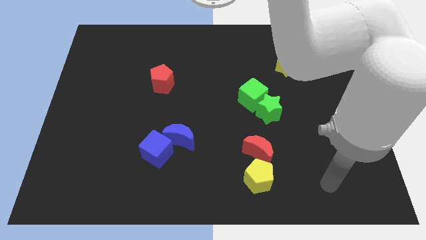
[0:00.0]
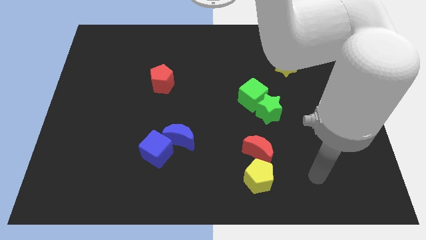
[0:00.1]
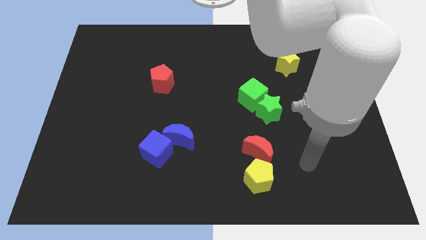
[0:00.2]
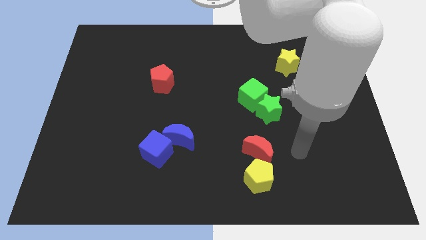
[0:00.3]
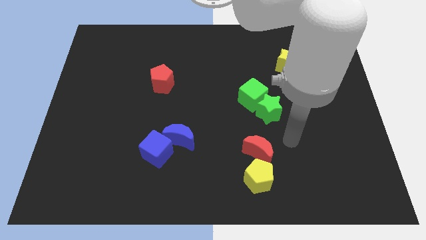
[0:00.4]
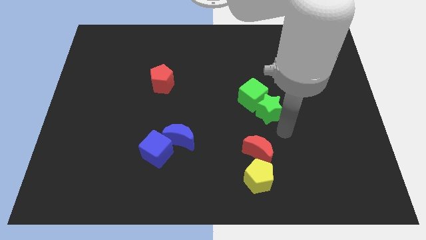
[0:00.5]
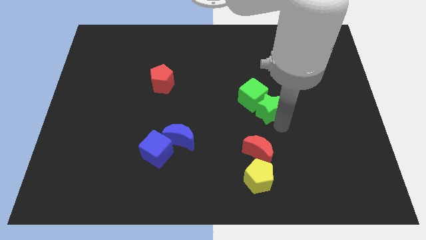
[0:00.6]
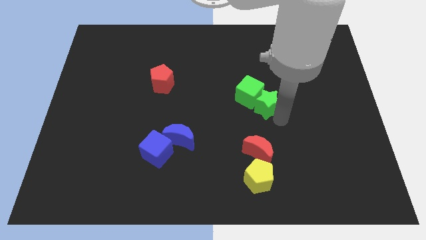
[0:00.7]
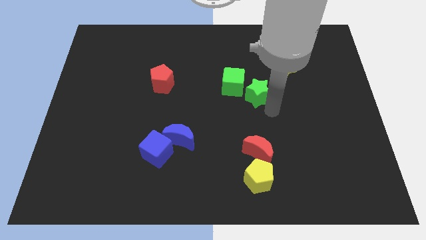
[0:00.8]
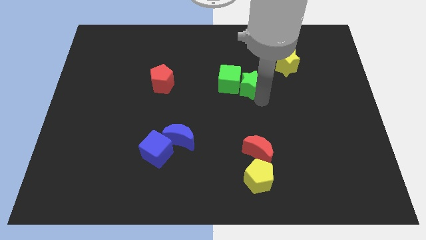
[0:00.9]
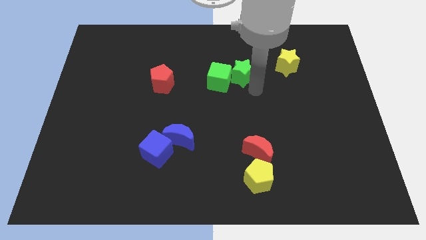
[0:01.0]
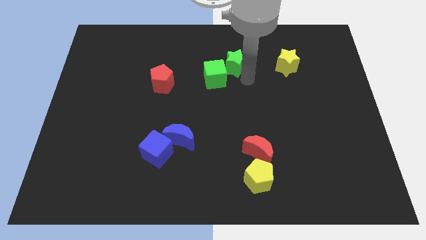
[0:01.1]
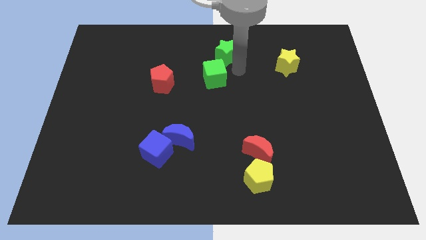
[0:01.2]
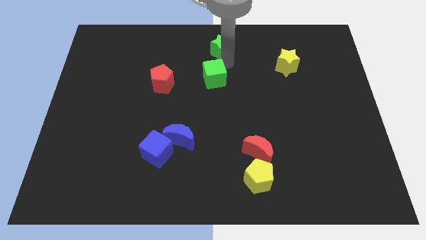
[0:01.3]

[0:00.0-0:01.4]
separate the green cube from the green star

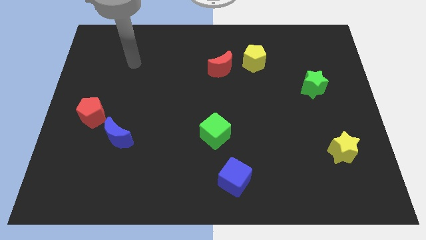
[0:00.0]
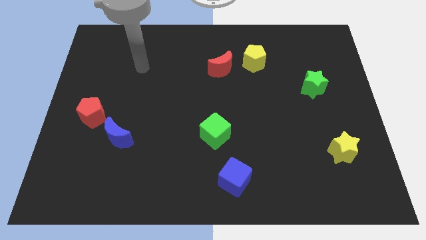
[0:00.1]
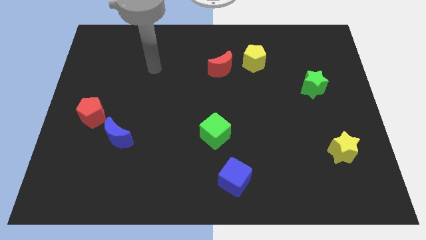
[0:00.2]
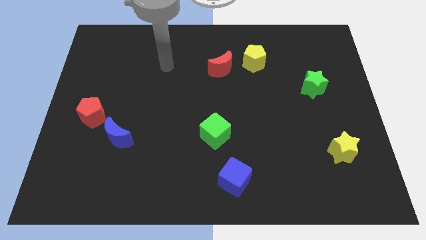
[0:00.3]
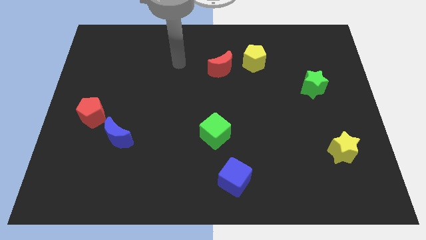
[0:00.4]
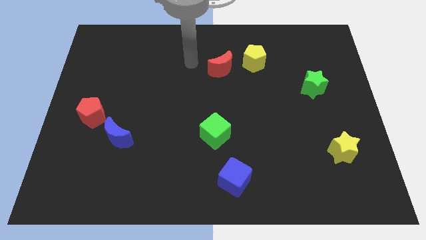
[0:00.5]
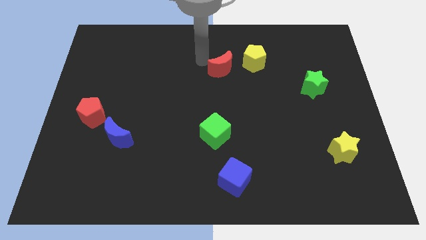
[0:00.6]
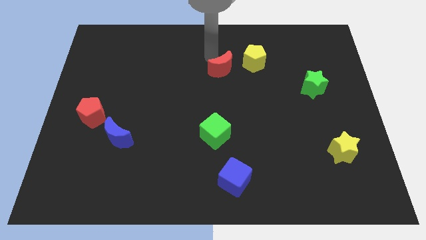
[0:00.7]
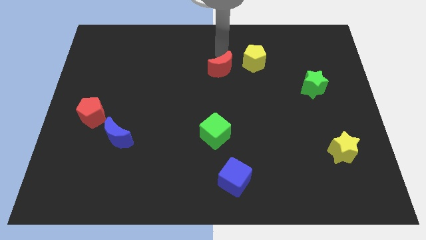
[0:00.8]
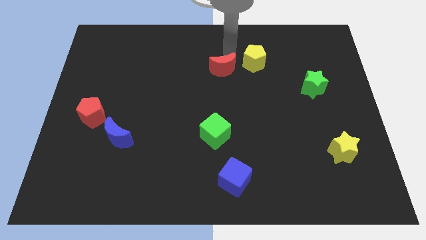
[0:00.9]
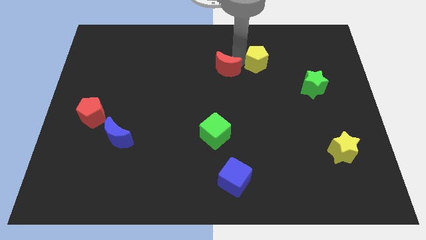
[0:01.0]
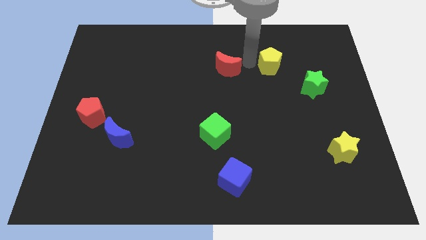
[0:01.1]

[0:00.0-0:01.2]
pull the red moon apart from the yellow pentagon

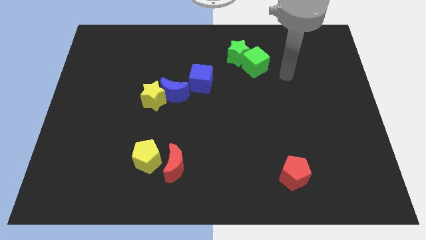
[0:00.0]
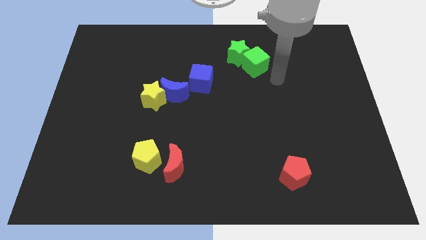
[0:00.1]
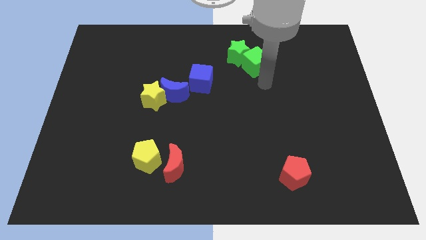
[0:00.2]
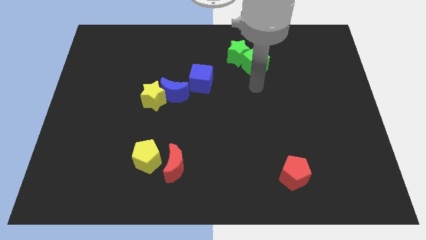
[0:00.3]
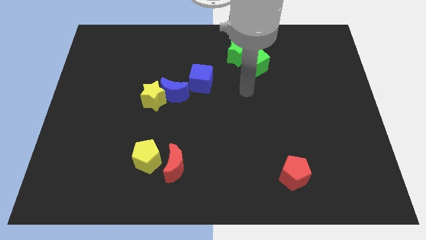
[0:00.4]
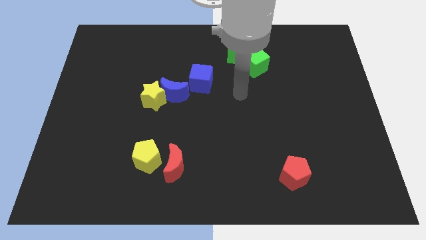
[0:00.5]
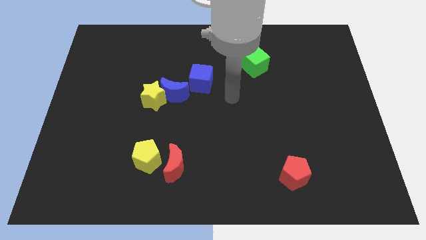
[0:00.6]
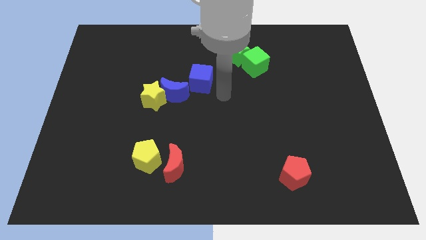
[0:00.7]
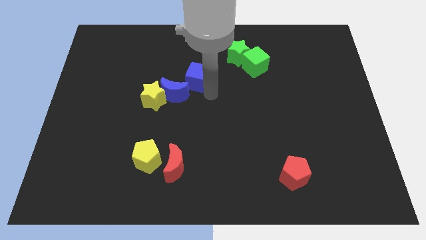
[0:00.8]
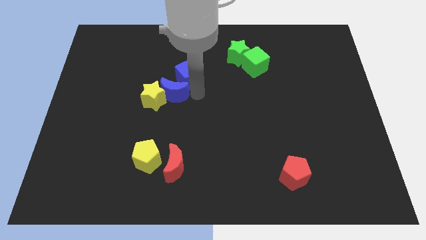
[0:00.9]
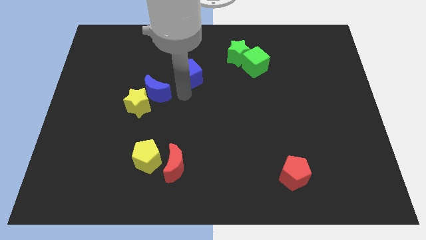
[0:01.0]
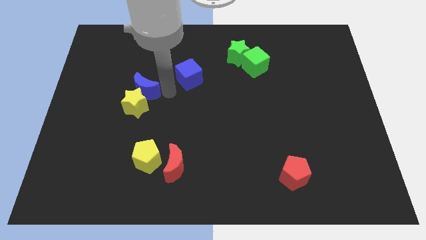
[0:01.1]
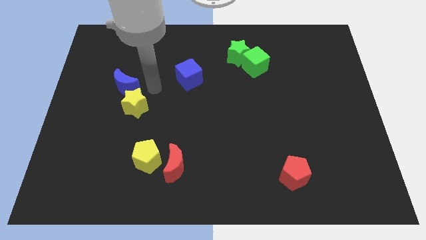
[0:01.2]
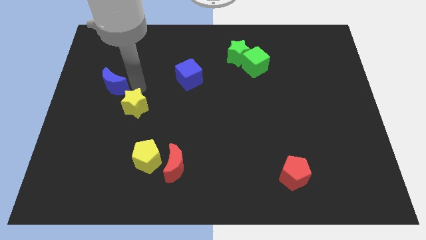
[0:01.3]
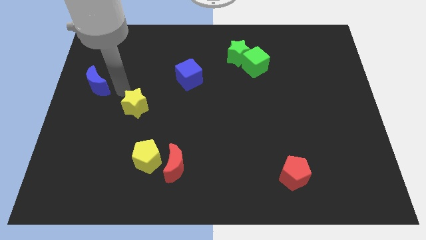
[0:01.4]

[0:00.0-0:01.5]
pull the yellow star apart from the blue moon

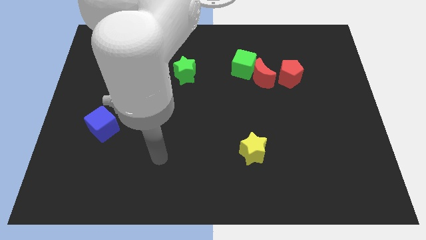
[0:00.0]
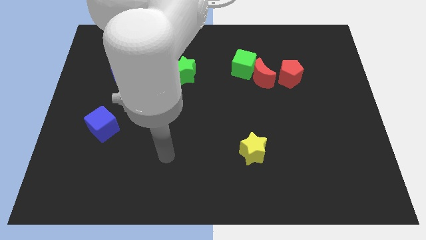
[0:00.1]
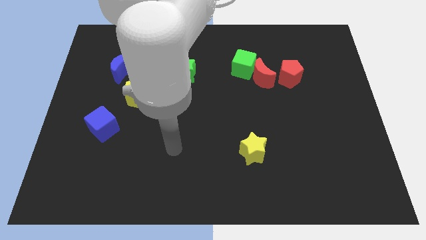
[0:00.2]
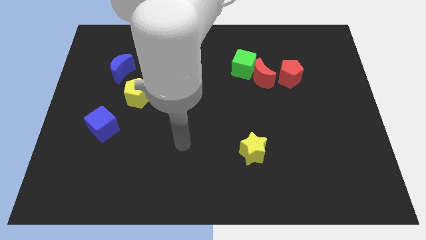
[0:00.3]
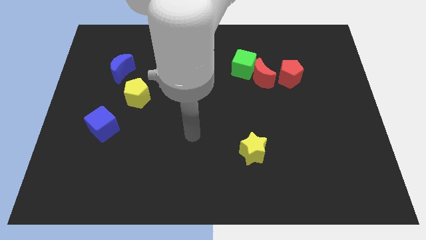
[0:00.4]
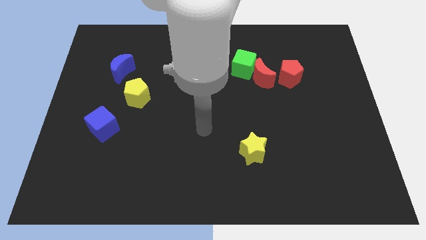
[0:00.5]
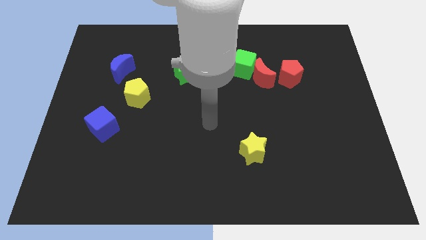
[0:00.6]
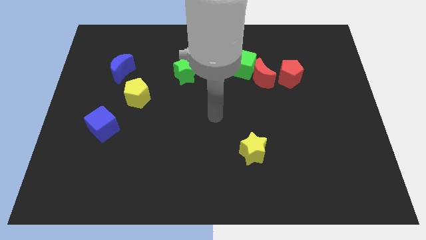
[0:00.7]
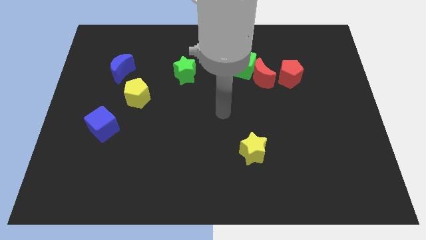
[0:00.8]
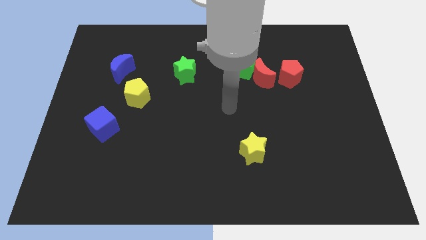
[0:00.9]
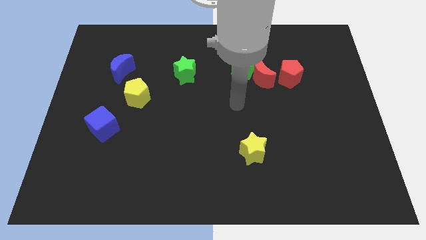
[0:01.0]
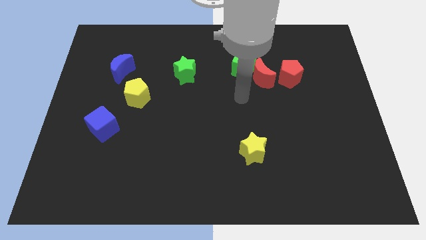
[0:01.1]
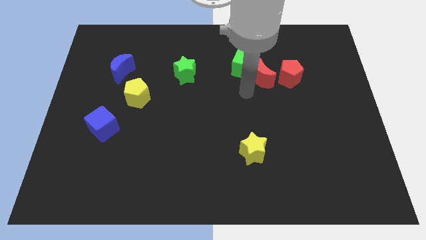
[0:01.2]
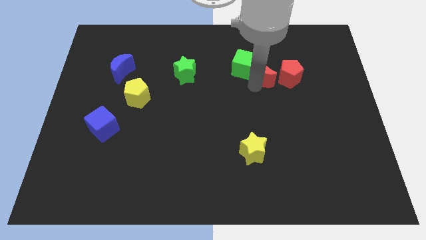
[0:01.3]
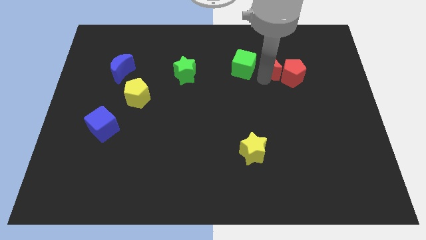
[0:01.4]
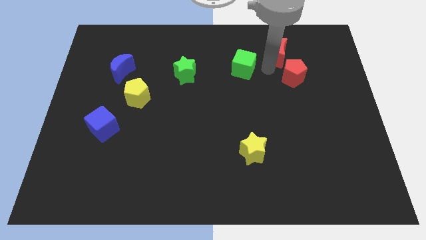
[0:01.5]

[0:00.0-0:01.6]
move the green cube away from the red moon

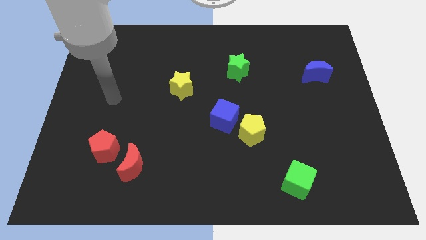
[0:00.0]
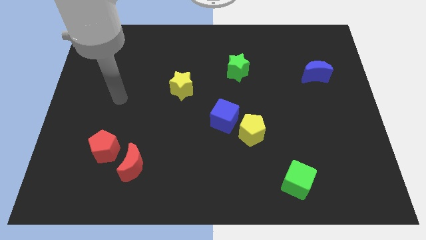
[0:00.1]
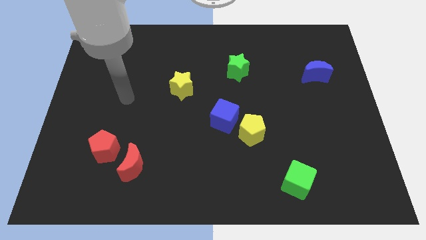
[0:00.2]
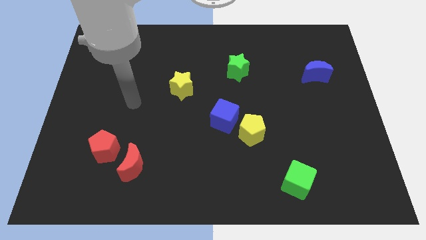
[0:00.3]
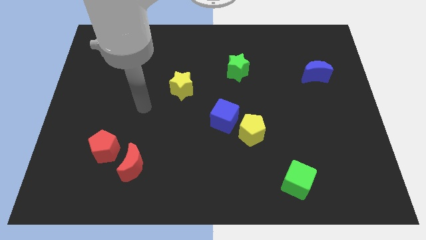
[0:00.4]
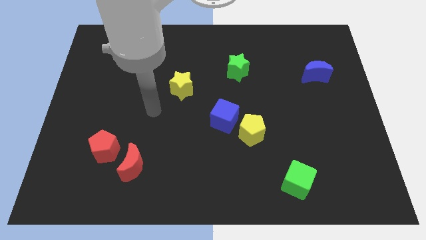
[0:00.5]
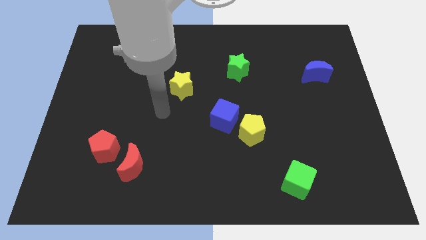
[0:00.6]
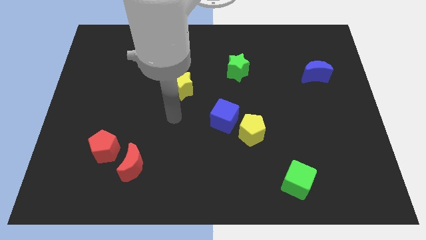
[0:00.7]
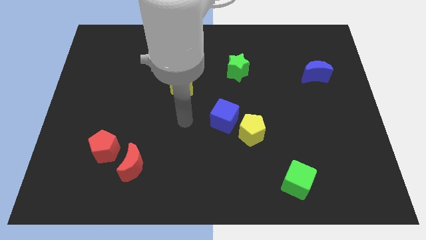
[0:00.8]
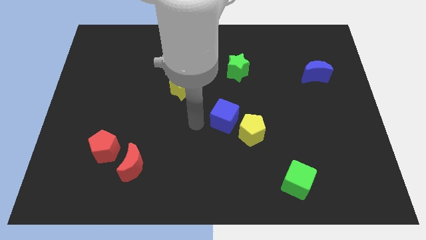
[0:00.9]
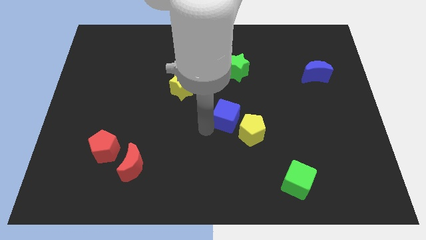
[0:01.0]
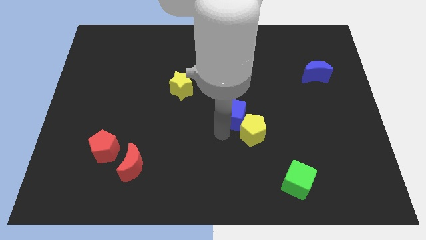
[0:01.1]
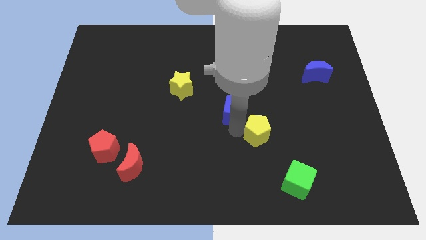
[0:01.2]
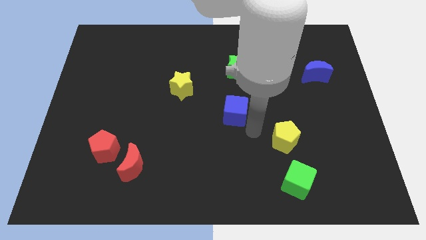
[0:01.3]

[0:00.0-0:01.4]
separate the blue cube from the yellow pentagon

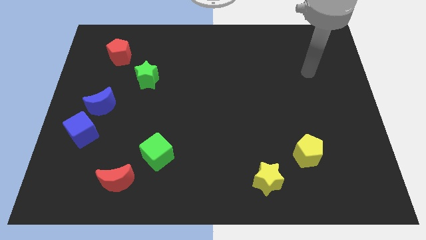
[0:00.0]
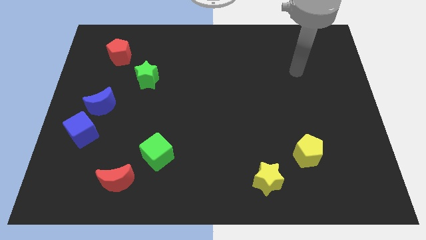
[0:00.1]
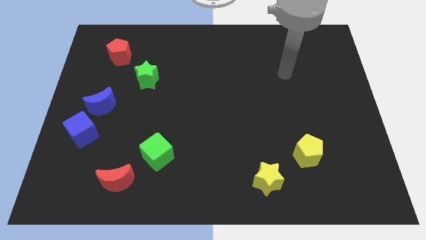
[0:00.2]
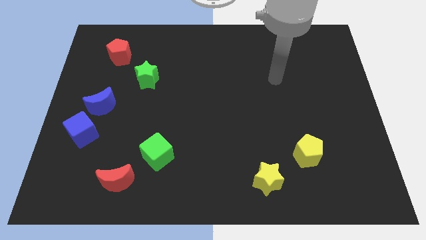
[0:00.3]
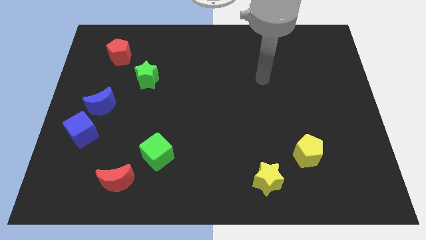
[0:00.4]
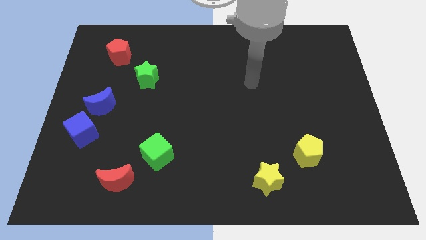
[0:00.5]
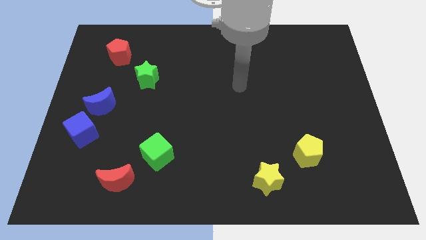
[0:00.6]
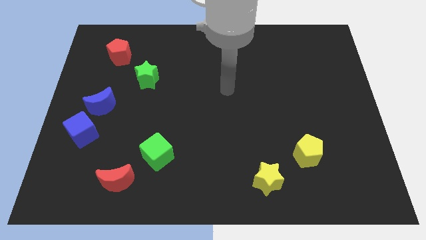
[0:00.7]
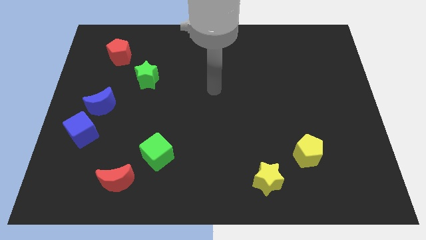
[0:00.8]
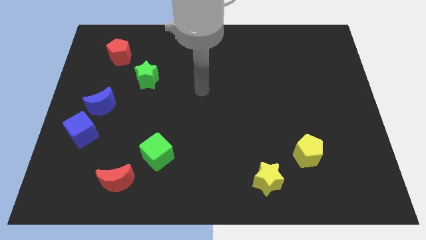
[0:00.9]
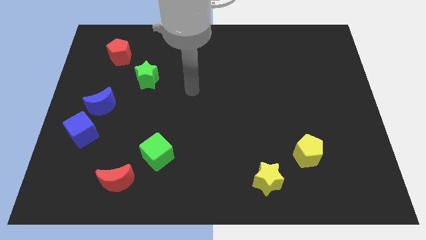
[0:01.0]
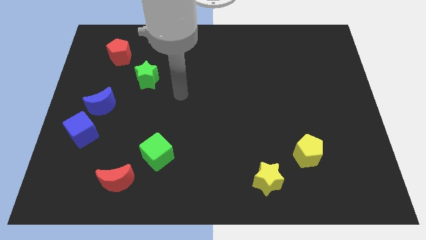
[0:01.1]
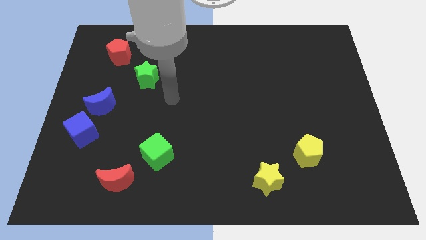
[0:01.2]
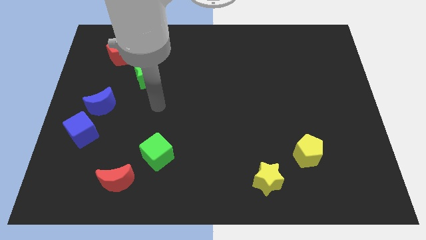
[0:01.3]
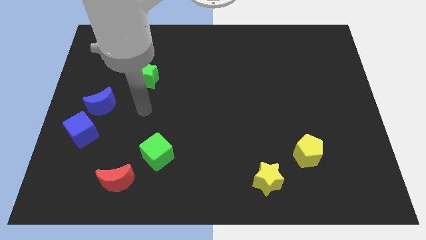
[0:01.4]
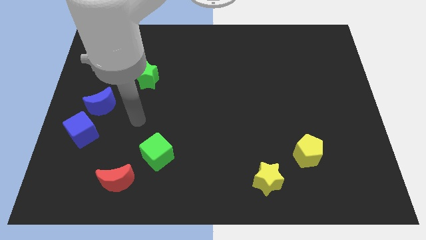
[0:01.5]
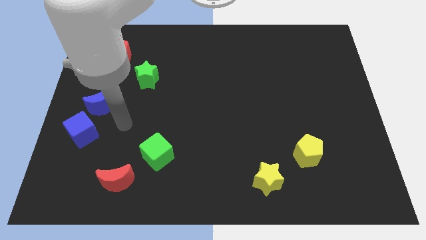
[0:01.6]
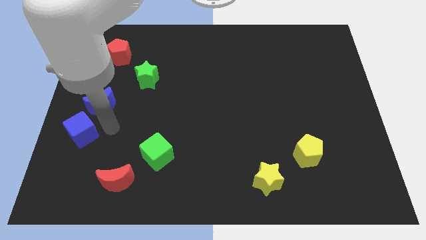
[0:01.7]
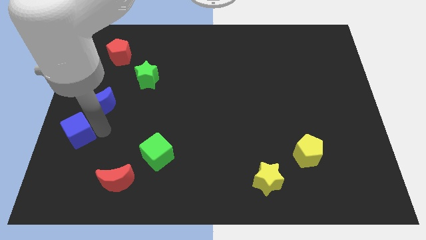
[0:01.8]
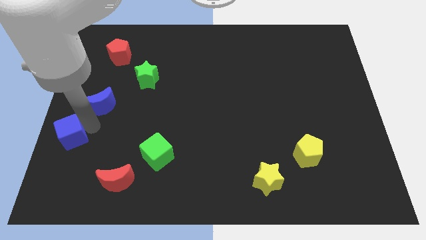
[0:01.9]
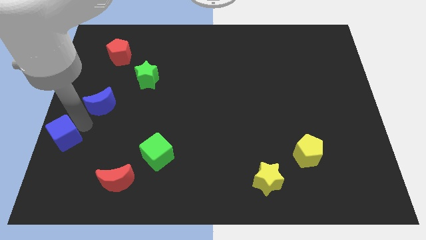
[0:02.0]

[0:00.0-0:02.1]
move the blue moon away from the blue cube
